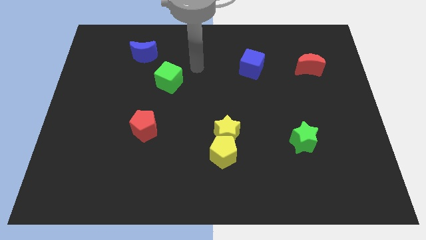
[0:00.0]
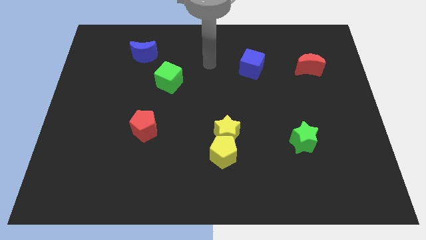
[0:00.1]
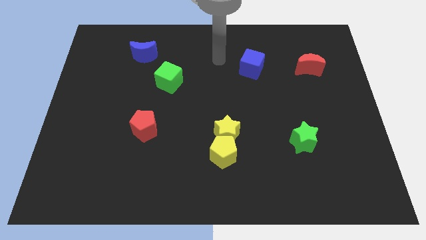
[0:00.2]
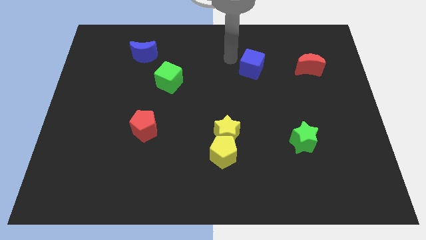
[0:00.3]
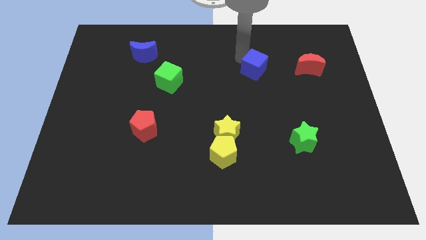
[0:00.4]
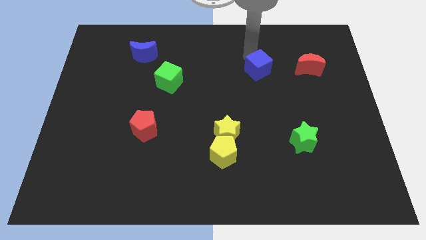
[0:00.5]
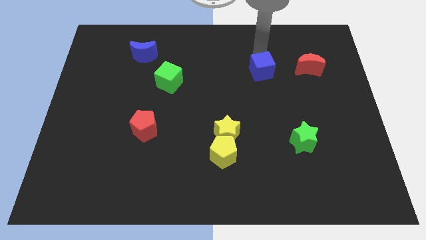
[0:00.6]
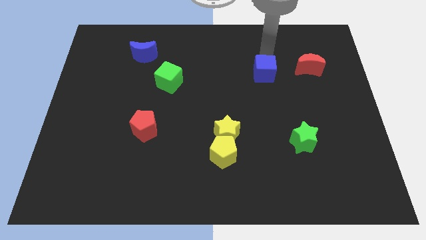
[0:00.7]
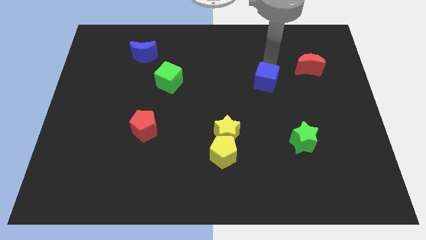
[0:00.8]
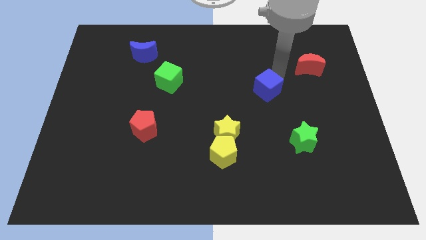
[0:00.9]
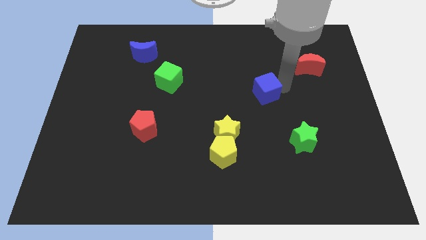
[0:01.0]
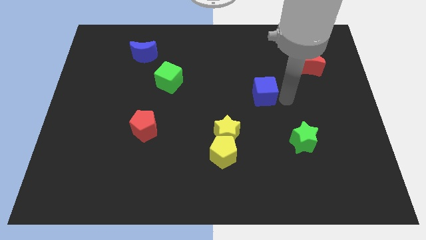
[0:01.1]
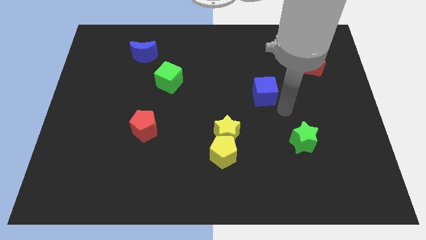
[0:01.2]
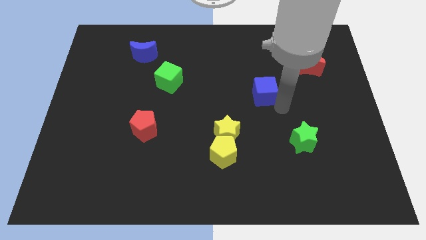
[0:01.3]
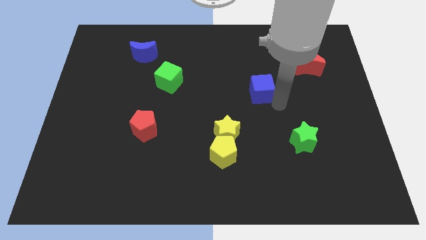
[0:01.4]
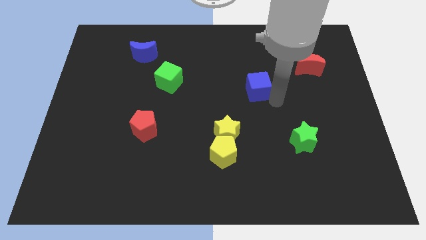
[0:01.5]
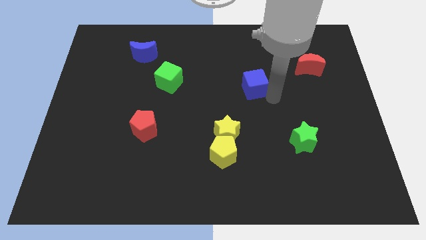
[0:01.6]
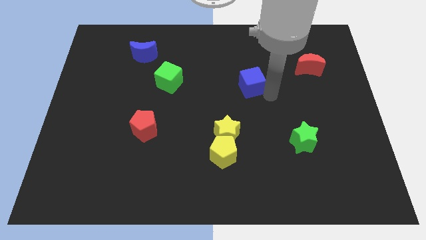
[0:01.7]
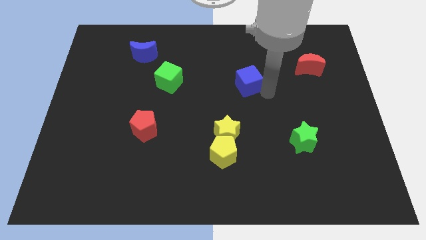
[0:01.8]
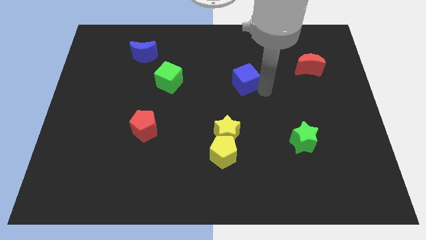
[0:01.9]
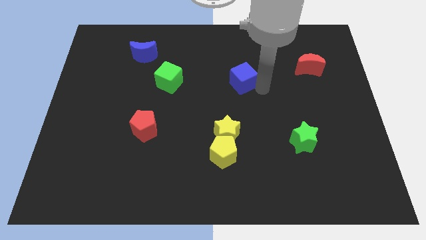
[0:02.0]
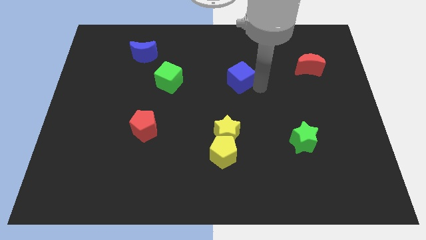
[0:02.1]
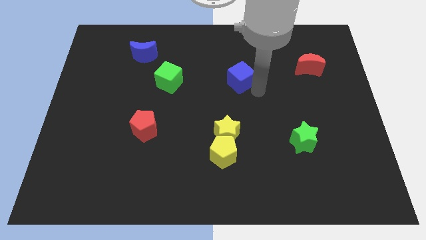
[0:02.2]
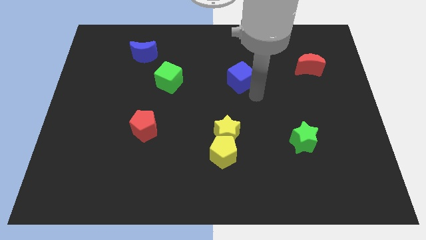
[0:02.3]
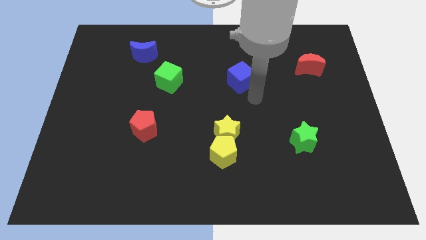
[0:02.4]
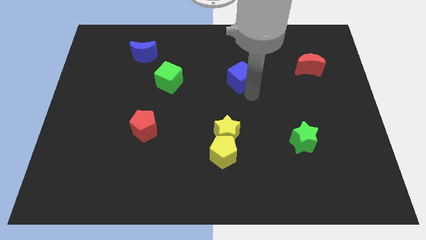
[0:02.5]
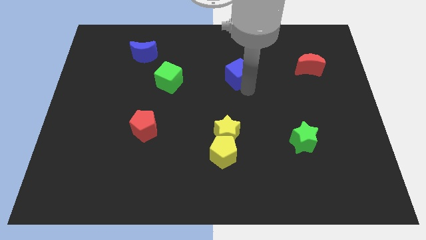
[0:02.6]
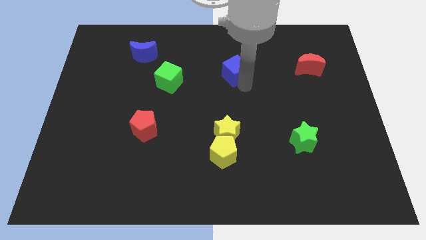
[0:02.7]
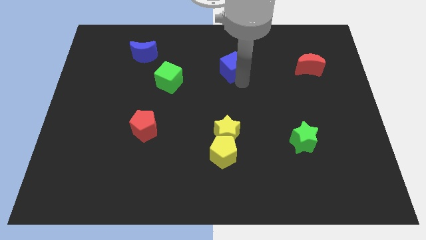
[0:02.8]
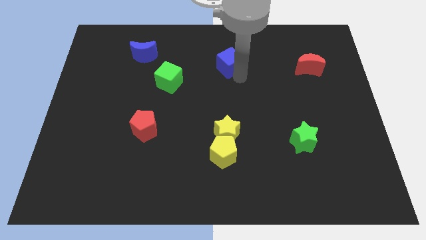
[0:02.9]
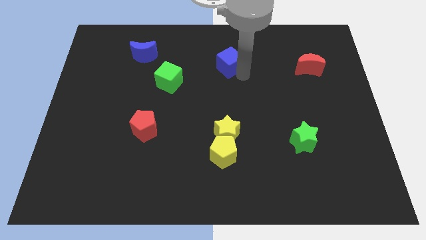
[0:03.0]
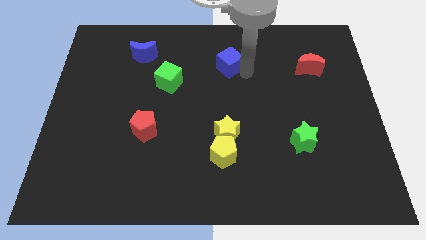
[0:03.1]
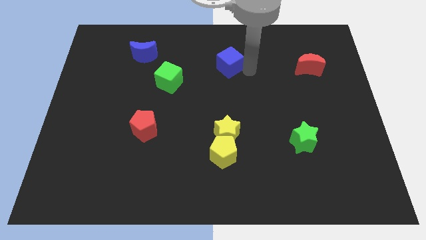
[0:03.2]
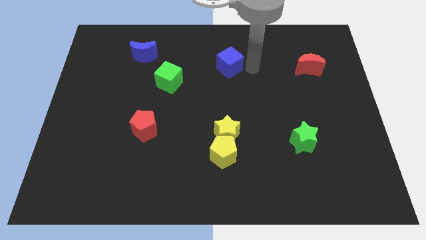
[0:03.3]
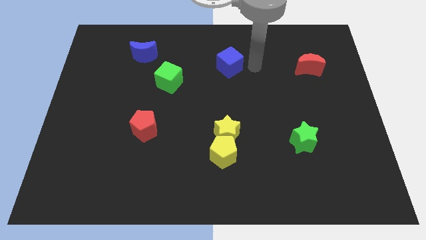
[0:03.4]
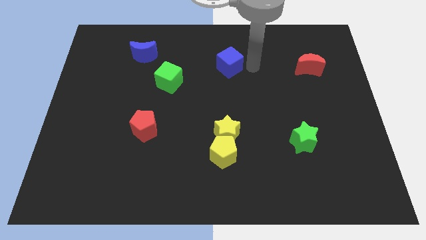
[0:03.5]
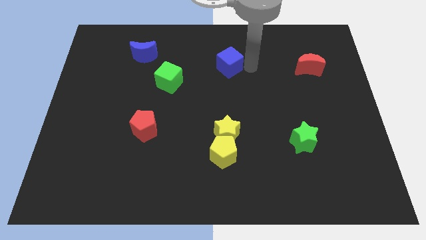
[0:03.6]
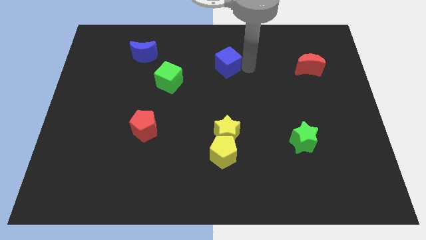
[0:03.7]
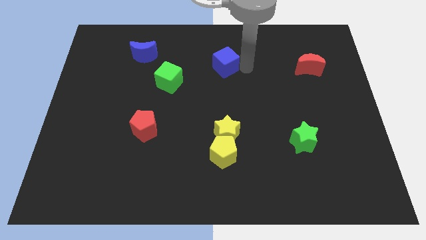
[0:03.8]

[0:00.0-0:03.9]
slightly move the blue cube left

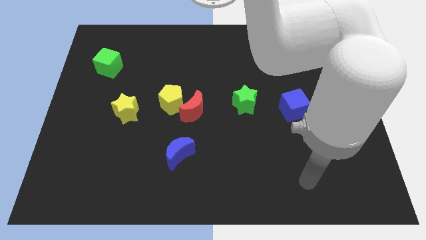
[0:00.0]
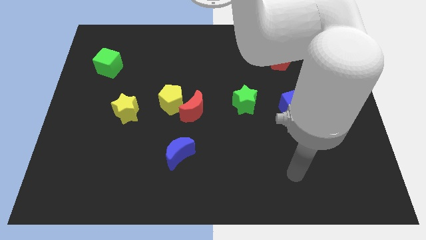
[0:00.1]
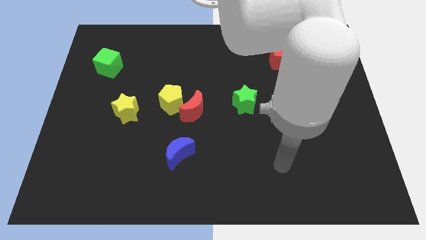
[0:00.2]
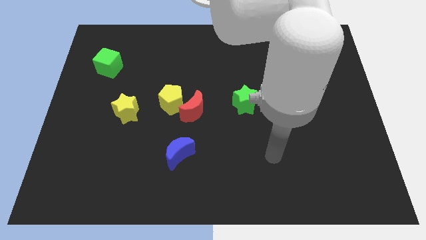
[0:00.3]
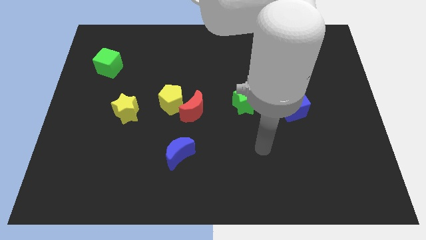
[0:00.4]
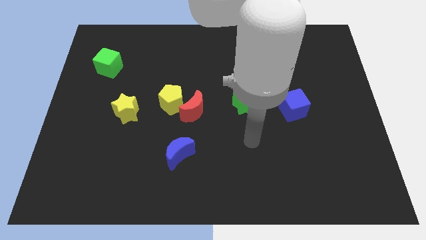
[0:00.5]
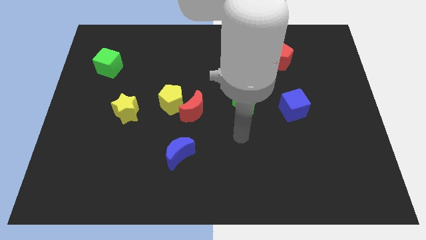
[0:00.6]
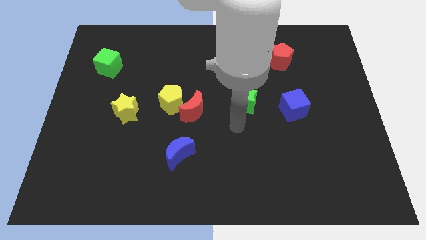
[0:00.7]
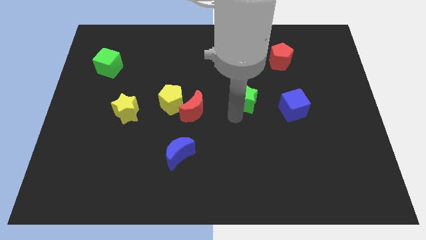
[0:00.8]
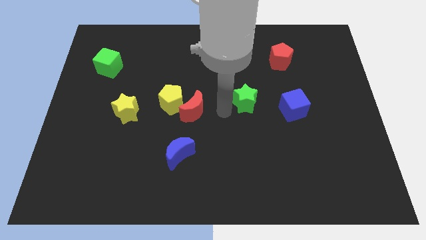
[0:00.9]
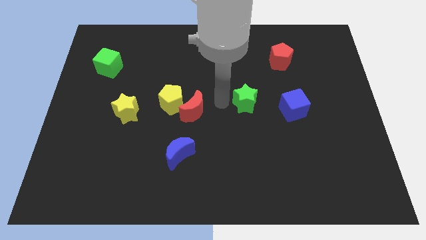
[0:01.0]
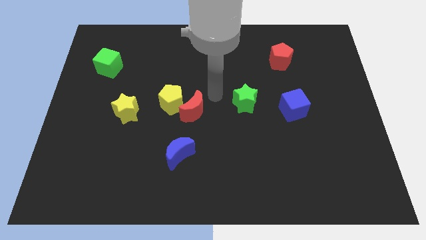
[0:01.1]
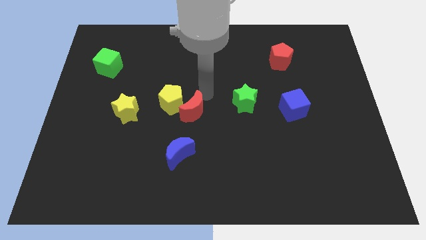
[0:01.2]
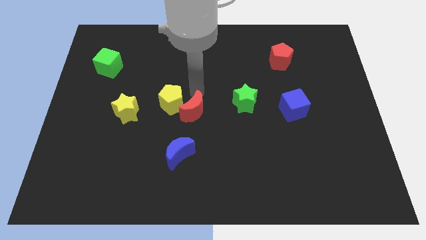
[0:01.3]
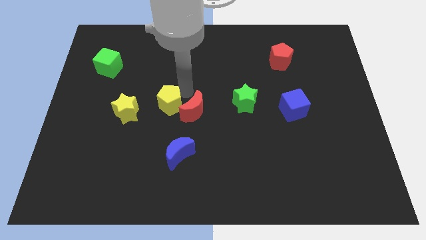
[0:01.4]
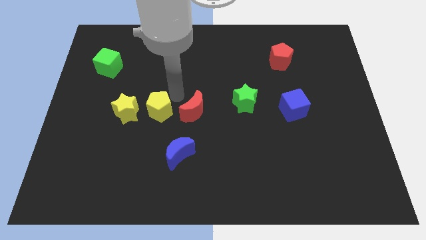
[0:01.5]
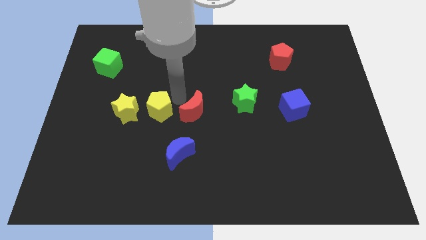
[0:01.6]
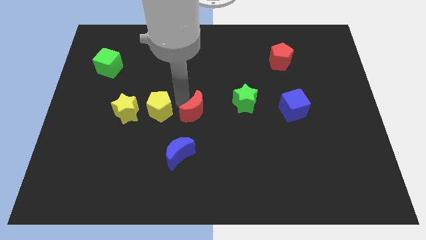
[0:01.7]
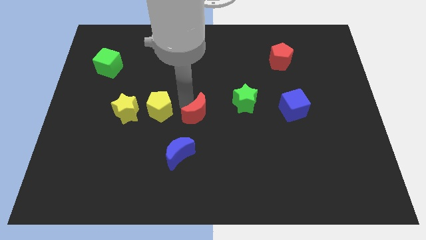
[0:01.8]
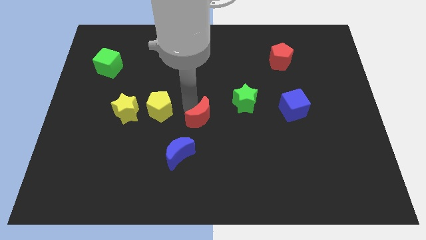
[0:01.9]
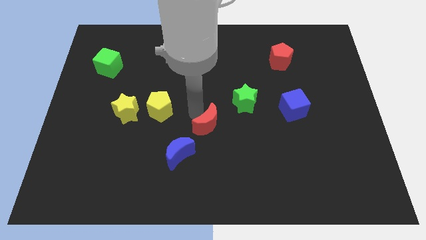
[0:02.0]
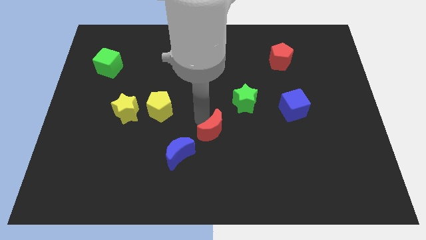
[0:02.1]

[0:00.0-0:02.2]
push the red moon diagonally down and right a little bit

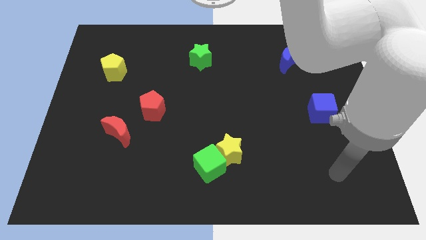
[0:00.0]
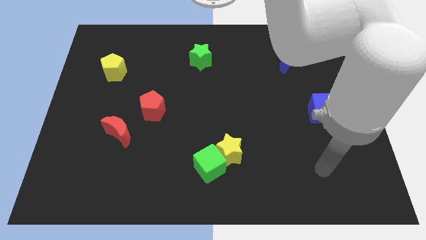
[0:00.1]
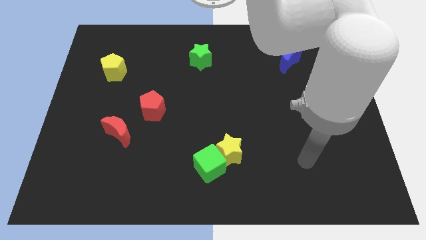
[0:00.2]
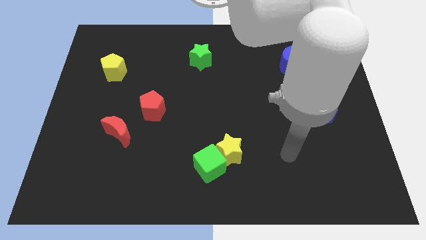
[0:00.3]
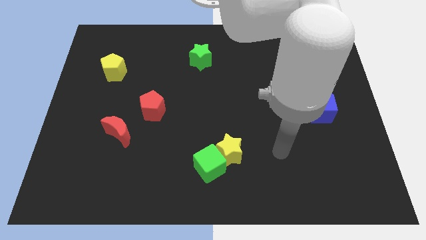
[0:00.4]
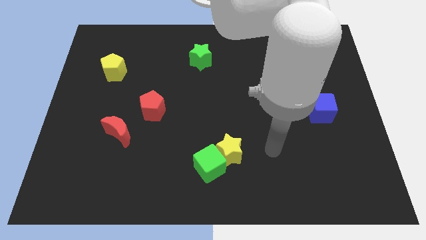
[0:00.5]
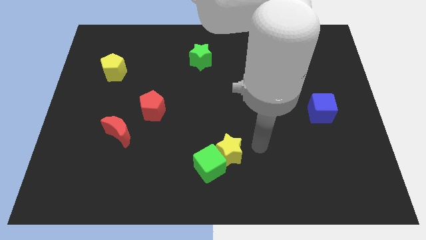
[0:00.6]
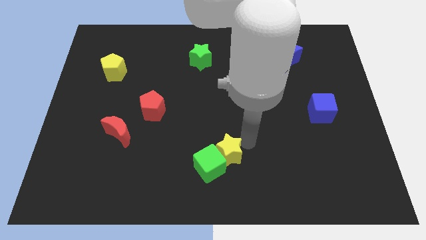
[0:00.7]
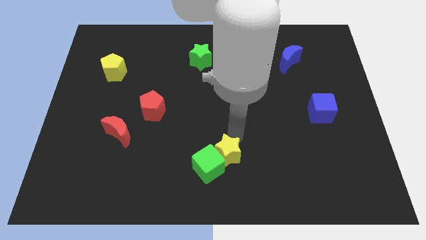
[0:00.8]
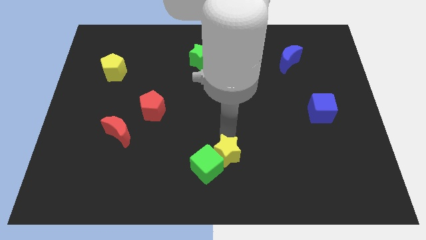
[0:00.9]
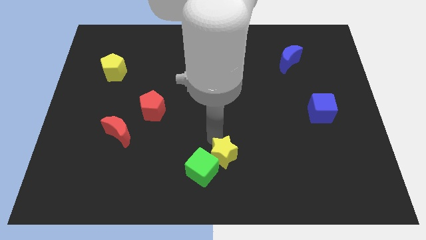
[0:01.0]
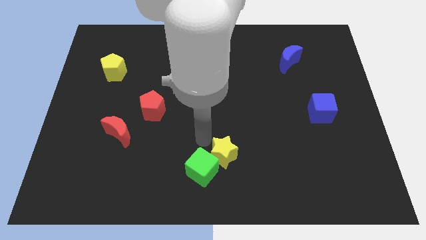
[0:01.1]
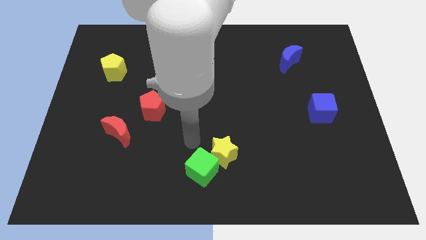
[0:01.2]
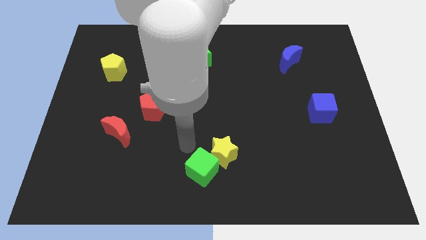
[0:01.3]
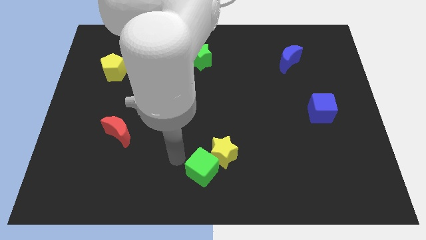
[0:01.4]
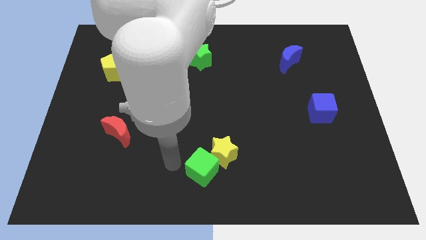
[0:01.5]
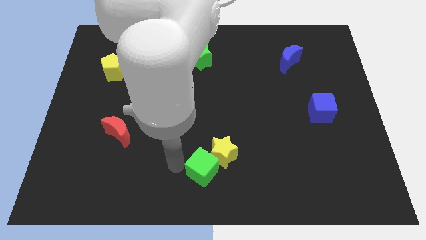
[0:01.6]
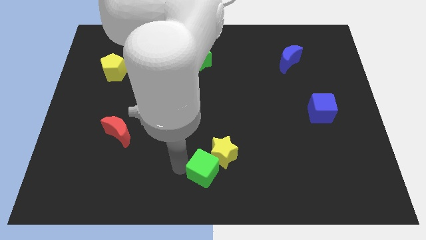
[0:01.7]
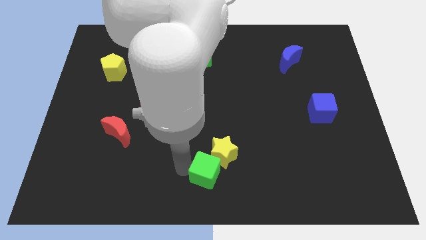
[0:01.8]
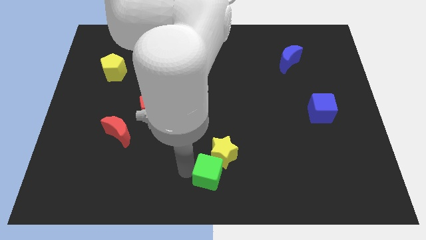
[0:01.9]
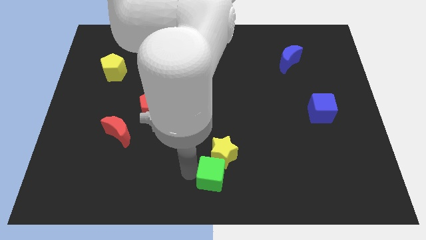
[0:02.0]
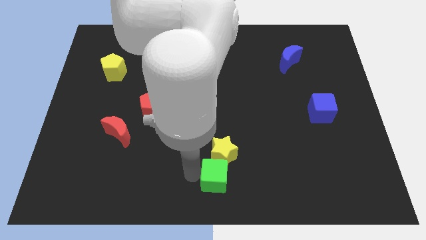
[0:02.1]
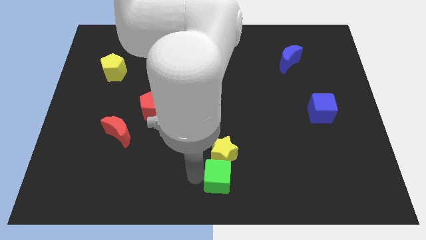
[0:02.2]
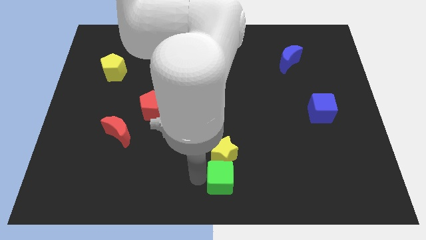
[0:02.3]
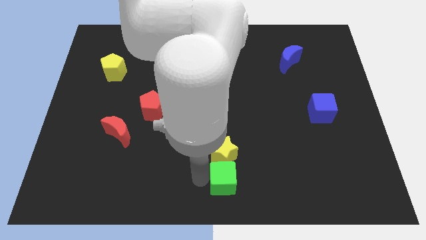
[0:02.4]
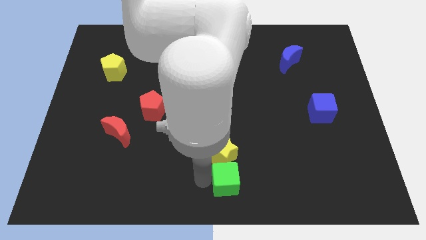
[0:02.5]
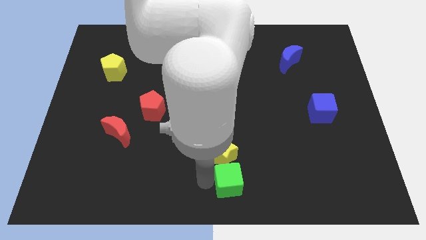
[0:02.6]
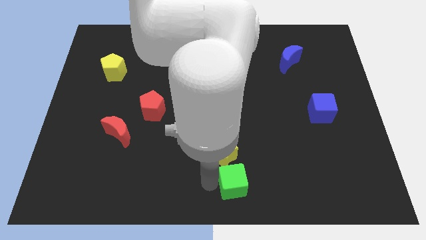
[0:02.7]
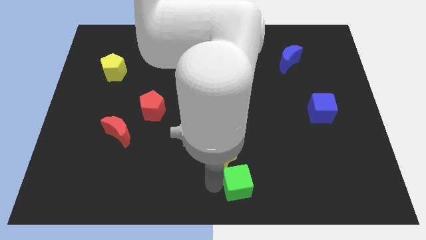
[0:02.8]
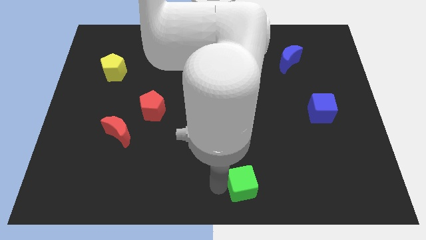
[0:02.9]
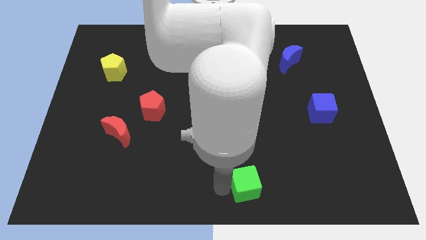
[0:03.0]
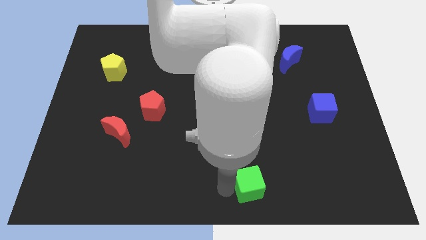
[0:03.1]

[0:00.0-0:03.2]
push the green cube a little bit to the right
